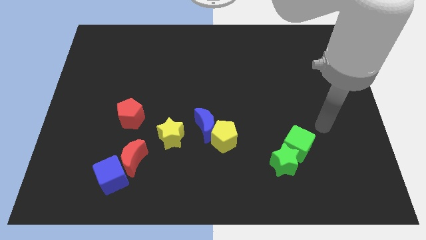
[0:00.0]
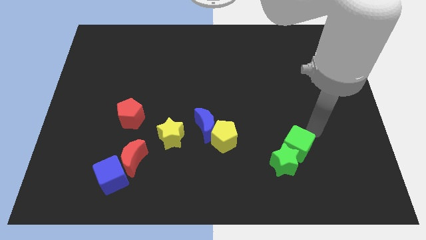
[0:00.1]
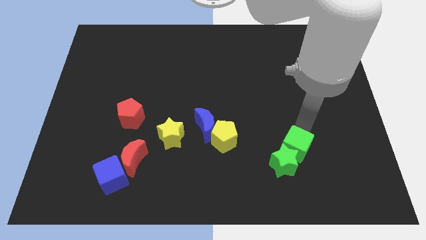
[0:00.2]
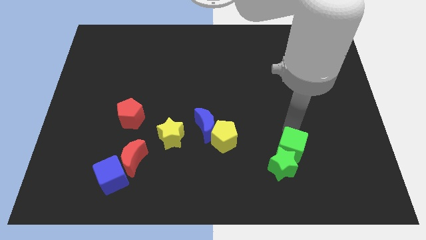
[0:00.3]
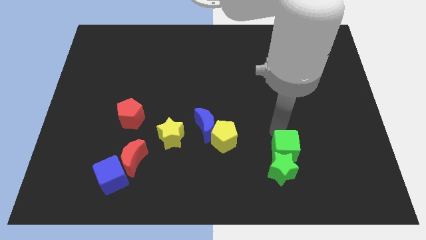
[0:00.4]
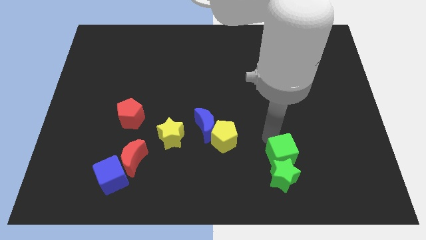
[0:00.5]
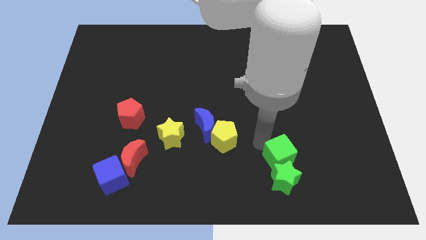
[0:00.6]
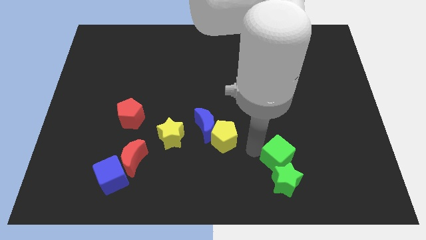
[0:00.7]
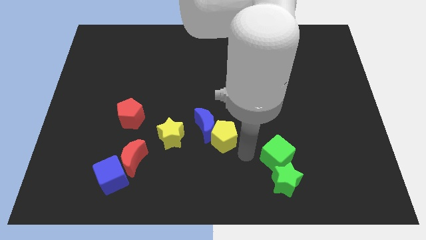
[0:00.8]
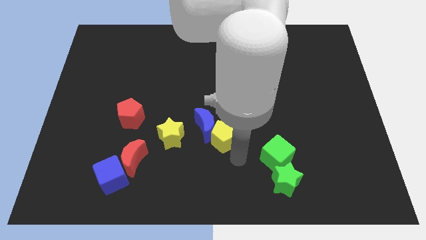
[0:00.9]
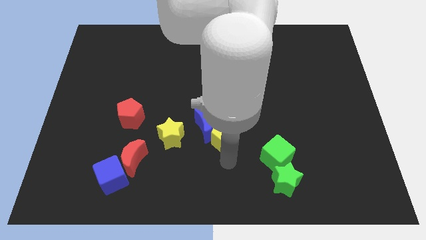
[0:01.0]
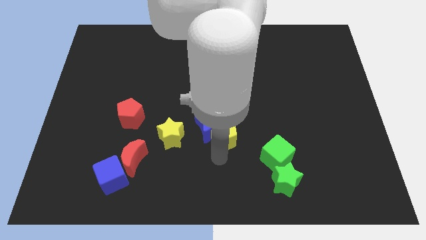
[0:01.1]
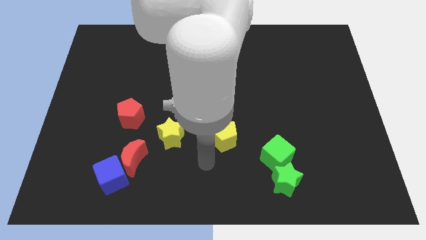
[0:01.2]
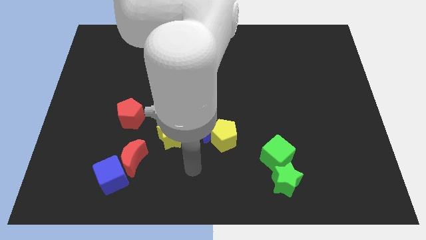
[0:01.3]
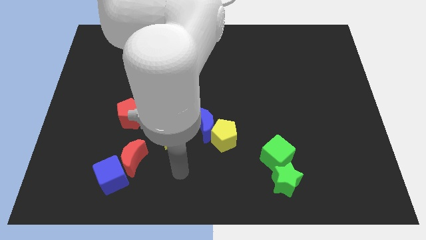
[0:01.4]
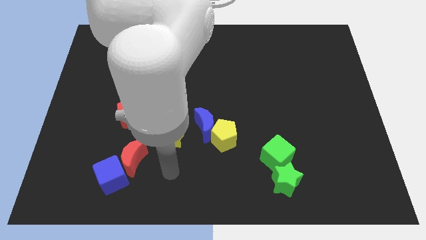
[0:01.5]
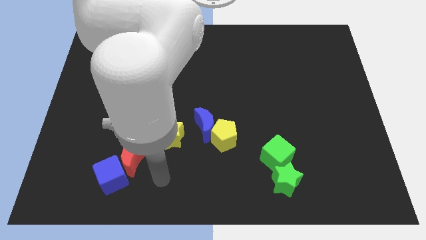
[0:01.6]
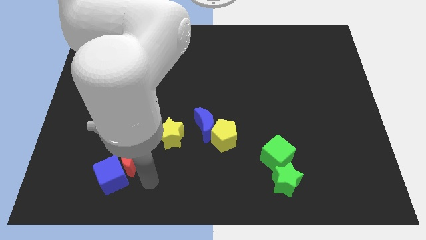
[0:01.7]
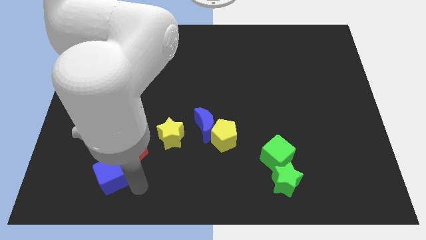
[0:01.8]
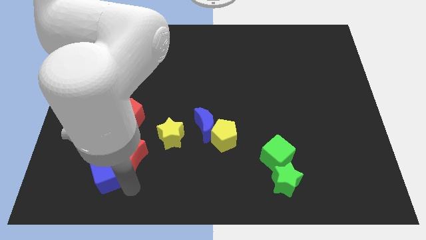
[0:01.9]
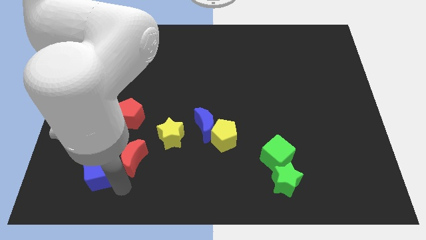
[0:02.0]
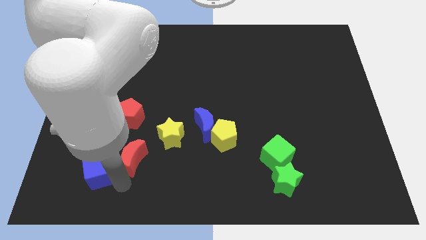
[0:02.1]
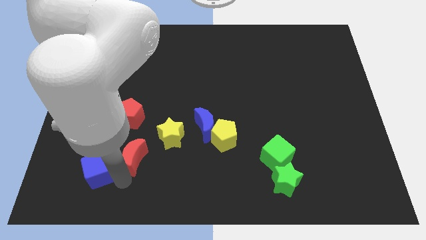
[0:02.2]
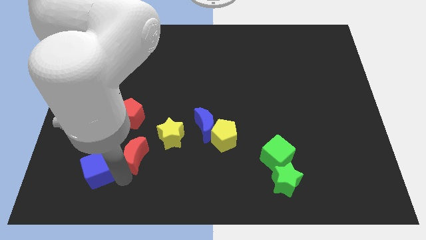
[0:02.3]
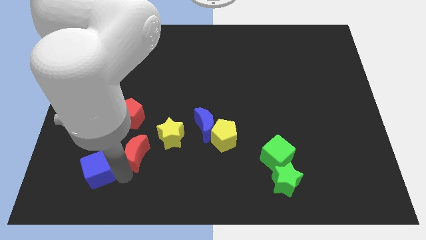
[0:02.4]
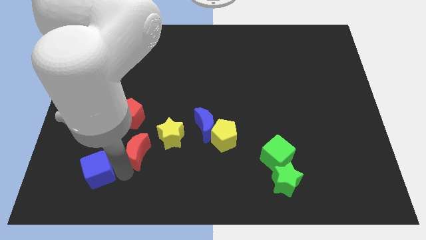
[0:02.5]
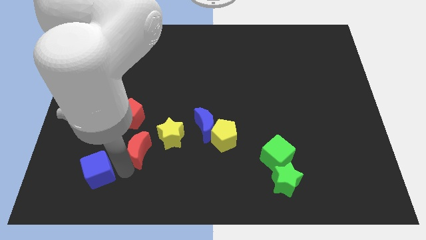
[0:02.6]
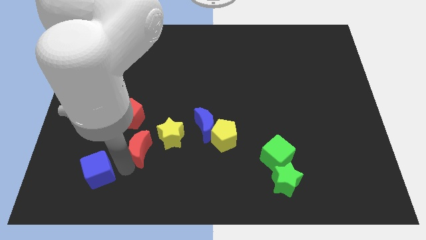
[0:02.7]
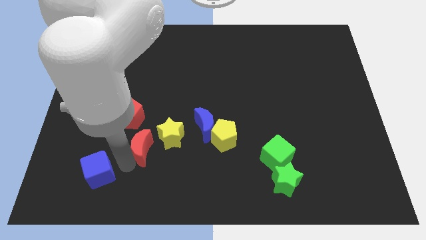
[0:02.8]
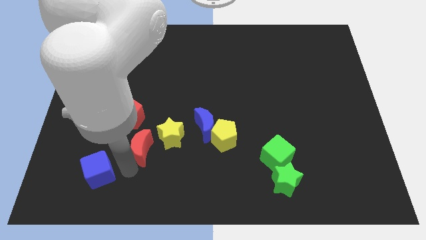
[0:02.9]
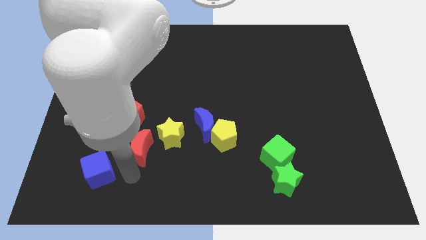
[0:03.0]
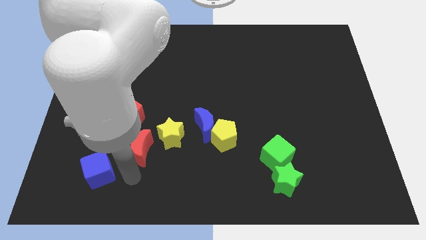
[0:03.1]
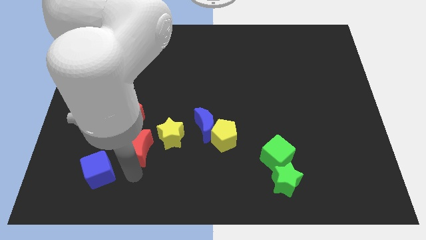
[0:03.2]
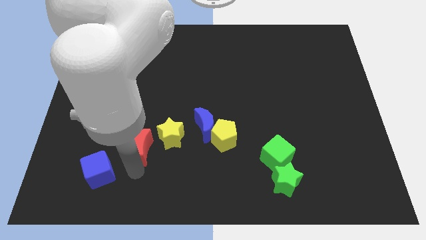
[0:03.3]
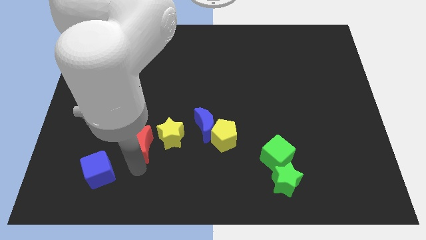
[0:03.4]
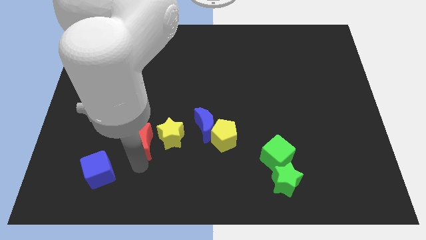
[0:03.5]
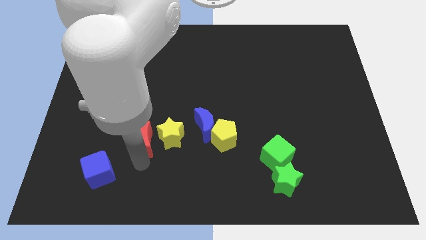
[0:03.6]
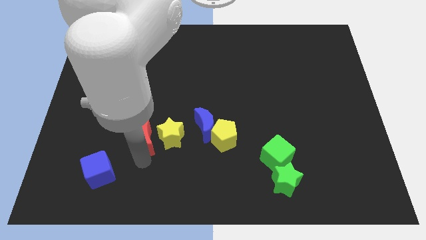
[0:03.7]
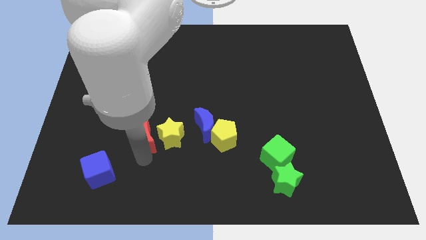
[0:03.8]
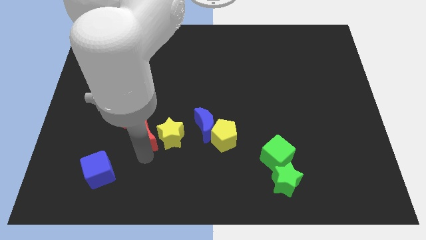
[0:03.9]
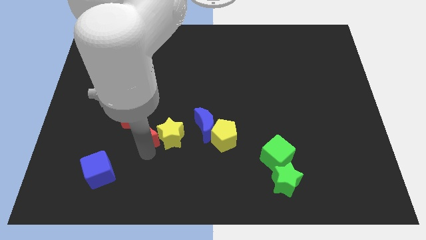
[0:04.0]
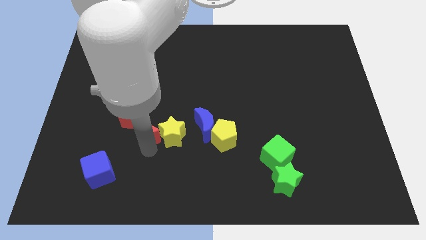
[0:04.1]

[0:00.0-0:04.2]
push the red moon slightly upwards

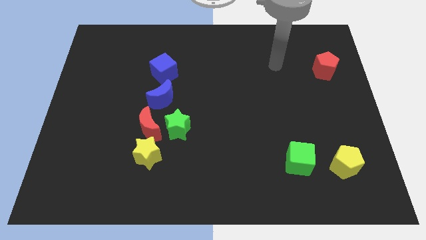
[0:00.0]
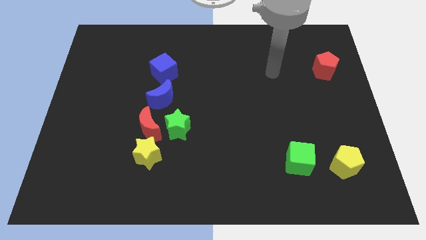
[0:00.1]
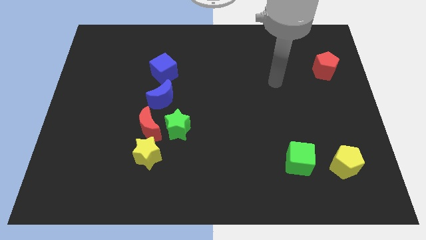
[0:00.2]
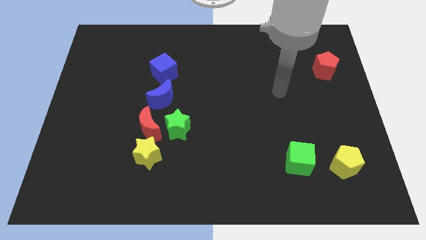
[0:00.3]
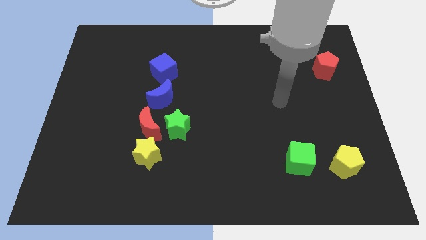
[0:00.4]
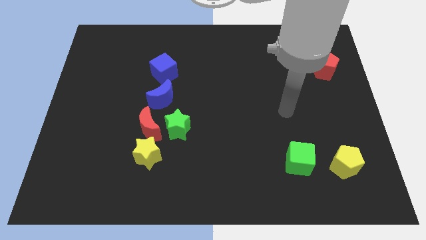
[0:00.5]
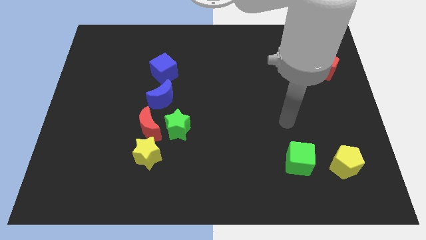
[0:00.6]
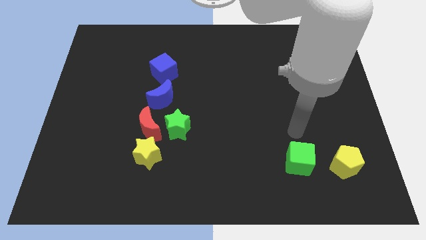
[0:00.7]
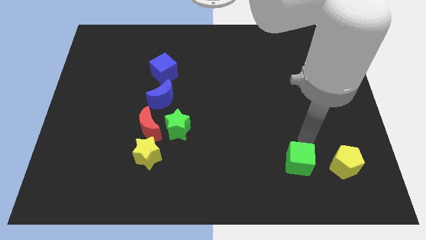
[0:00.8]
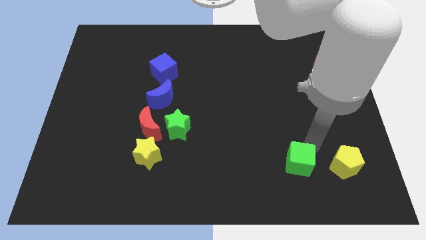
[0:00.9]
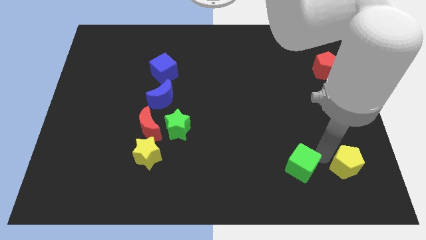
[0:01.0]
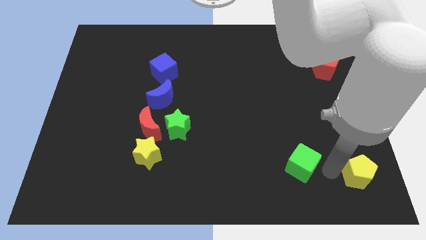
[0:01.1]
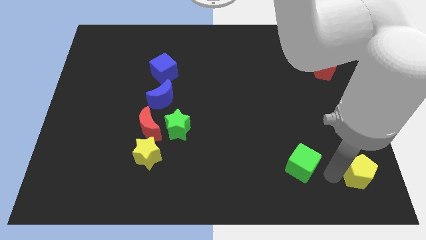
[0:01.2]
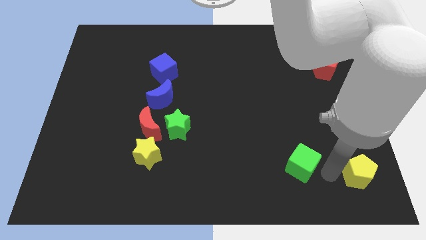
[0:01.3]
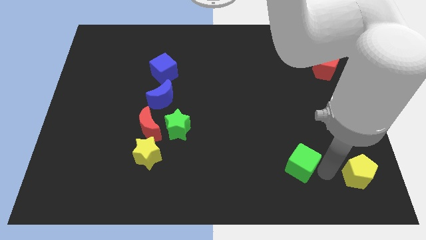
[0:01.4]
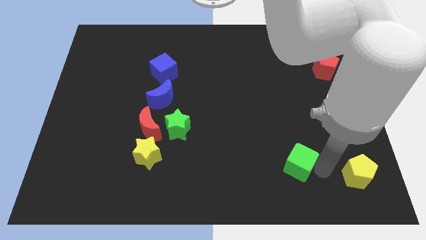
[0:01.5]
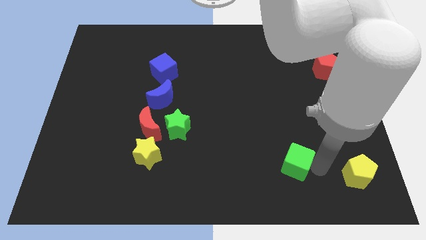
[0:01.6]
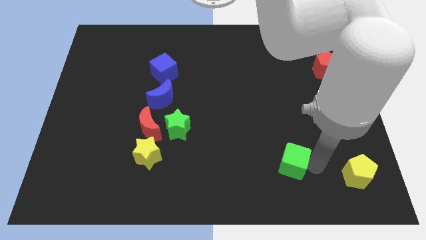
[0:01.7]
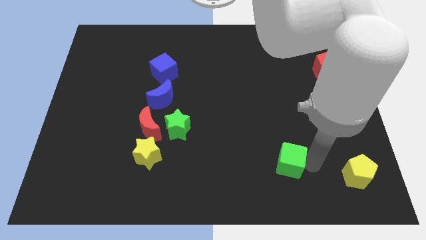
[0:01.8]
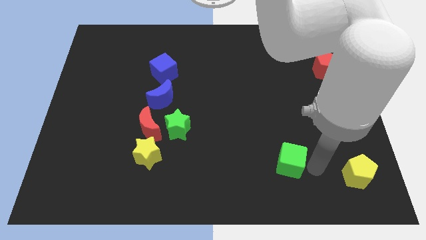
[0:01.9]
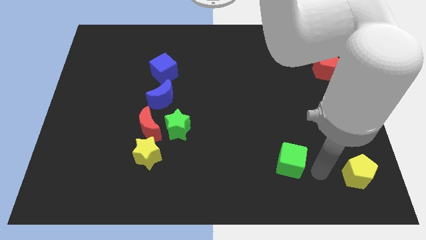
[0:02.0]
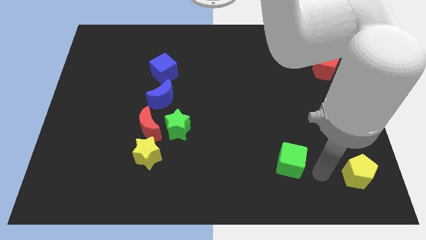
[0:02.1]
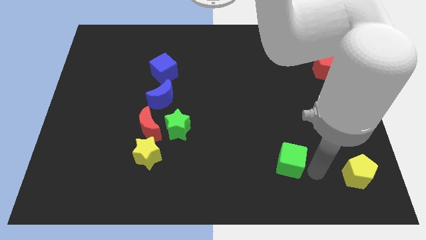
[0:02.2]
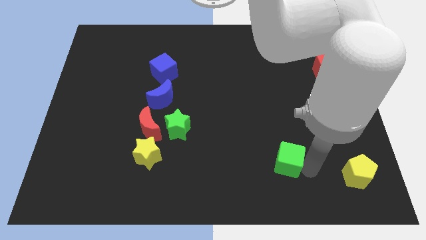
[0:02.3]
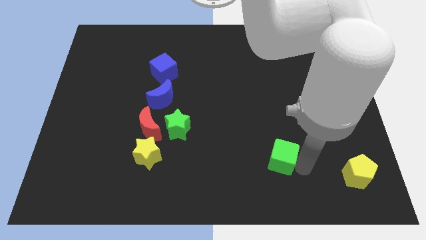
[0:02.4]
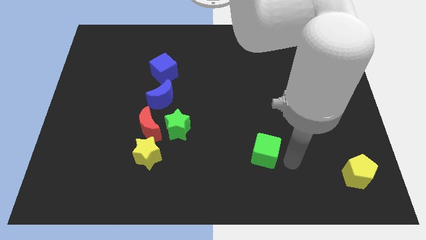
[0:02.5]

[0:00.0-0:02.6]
slightly push the green cube to the left

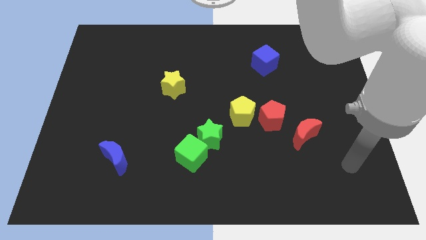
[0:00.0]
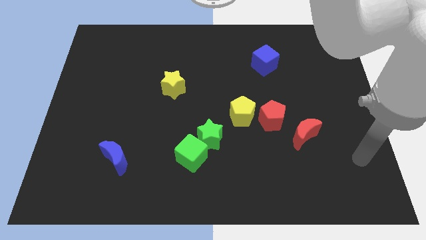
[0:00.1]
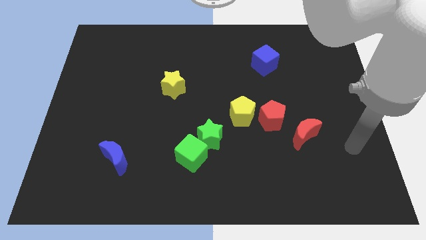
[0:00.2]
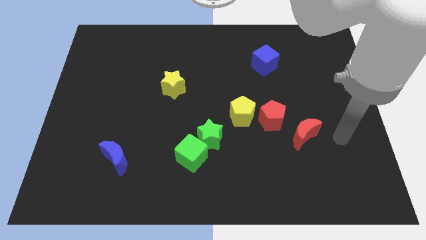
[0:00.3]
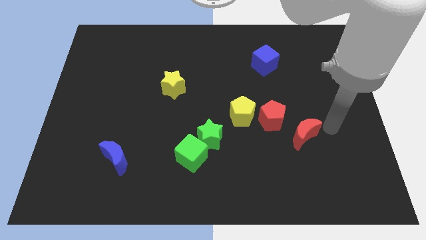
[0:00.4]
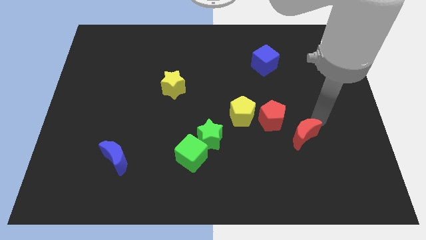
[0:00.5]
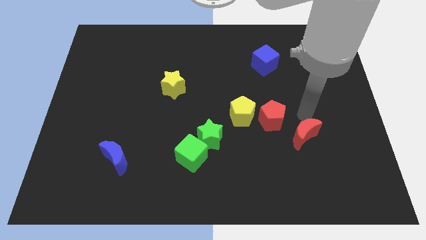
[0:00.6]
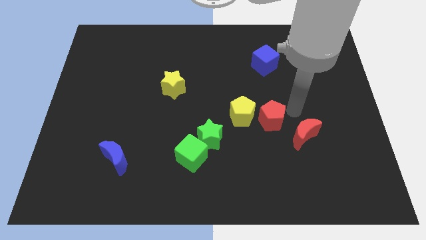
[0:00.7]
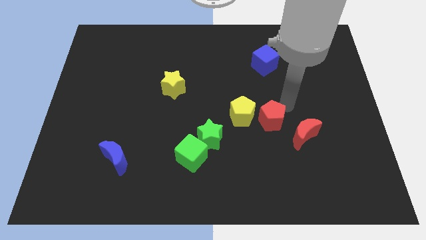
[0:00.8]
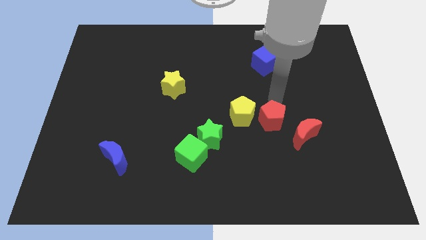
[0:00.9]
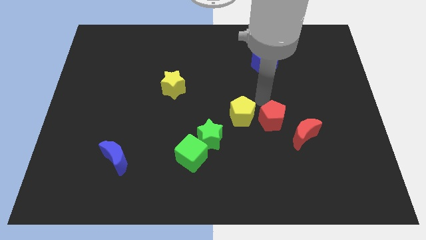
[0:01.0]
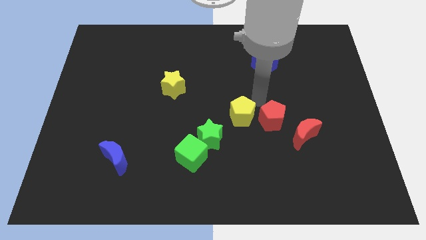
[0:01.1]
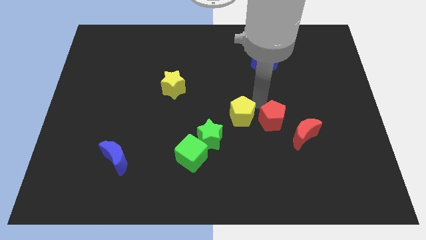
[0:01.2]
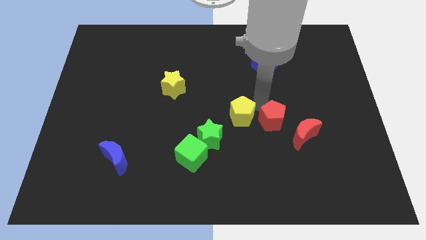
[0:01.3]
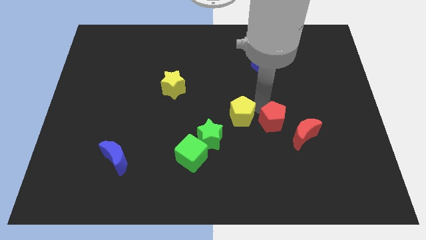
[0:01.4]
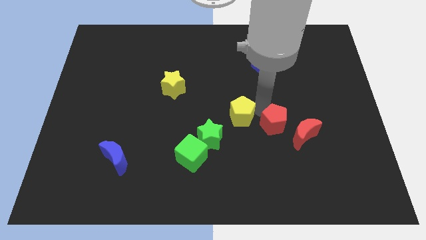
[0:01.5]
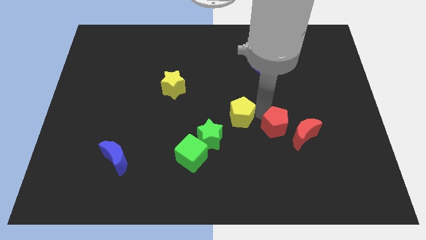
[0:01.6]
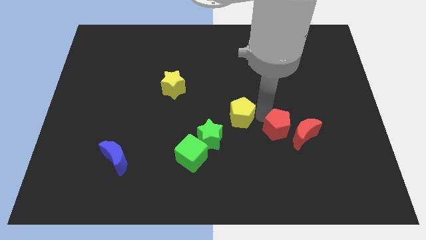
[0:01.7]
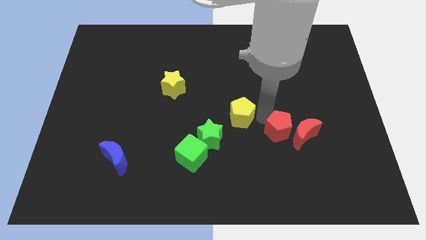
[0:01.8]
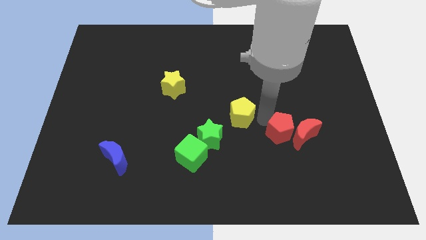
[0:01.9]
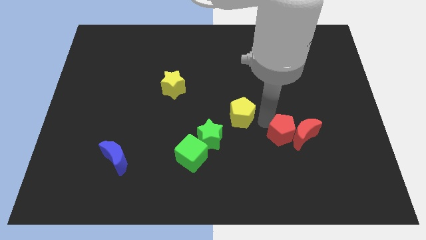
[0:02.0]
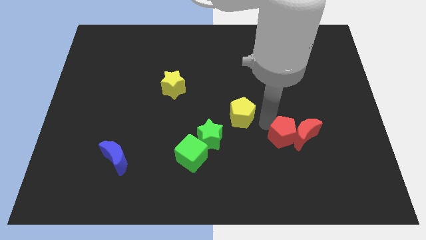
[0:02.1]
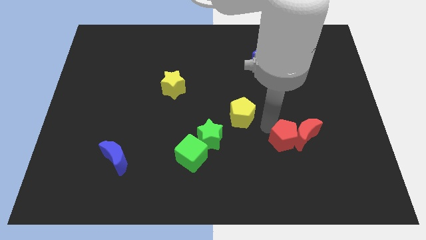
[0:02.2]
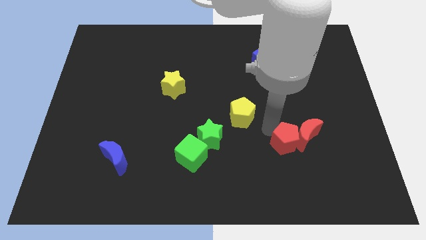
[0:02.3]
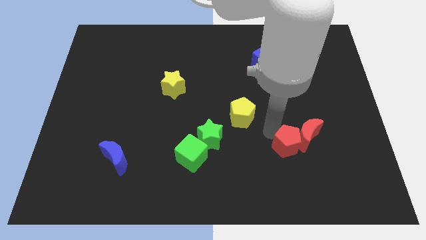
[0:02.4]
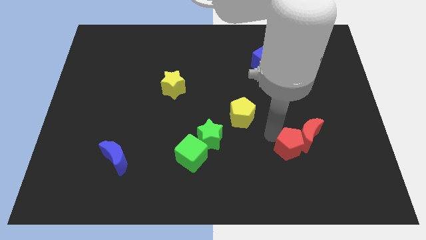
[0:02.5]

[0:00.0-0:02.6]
slide the red pentagon a little downwards and then to the right
